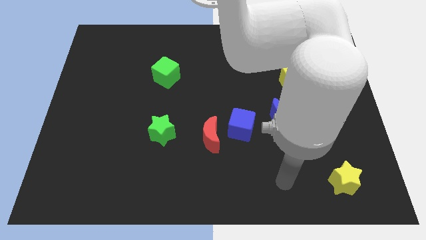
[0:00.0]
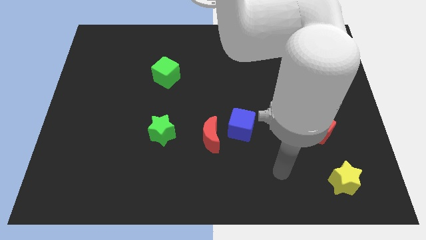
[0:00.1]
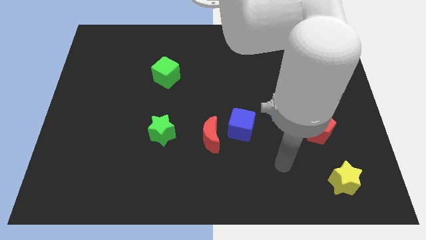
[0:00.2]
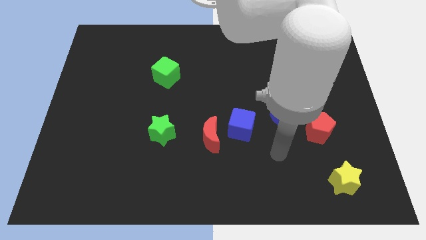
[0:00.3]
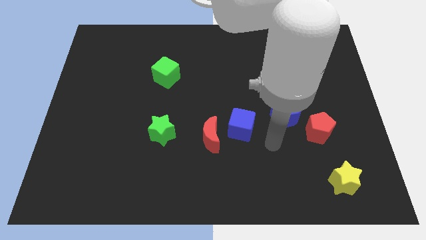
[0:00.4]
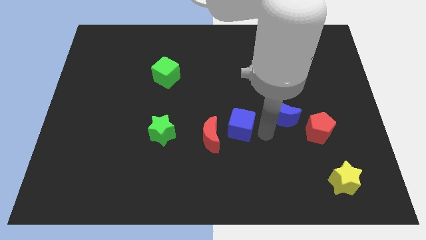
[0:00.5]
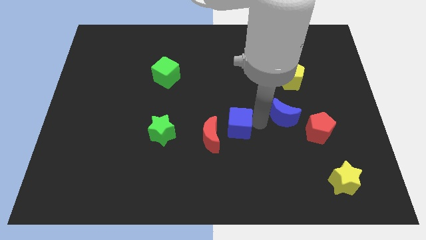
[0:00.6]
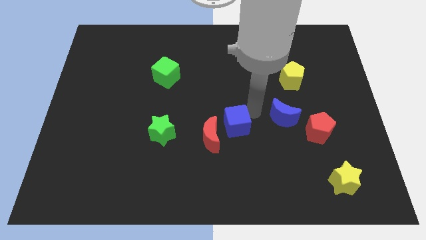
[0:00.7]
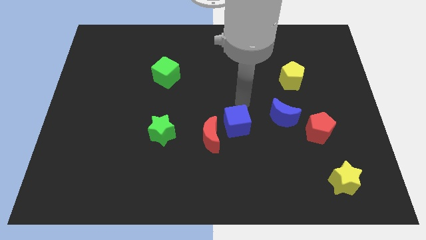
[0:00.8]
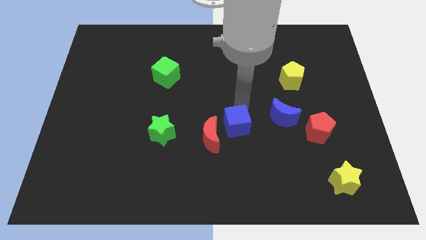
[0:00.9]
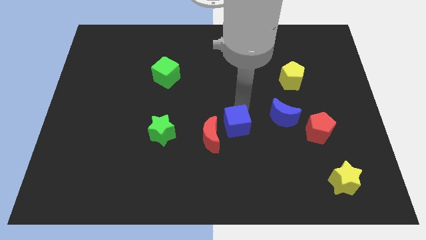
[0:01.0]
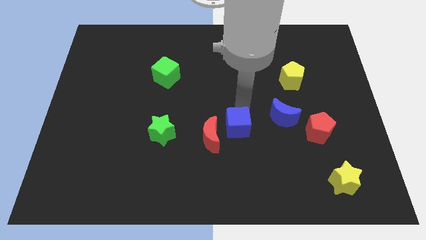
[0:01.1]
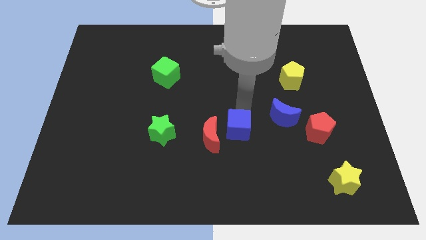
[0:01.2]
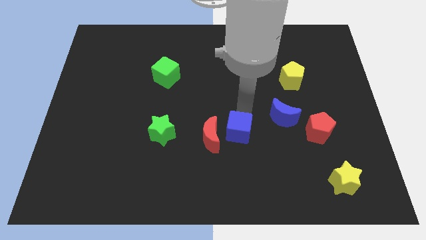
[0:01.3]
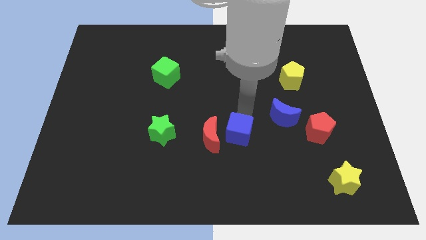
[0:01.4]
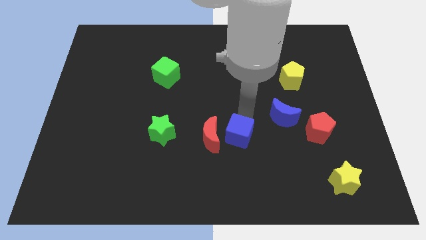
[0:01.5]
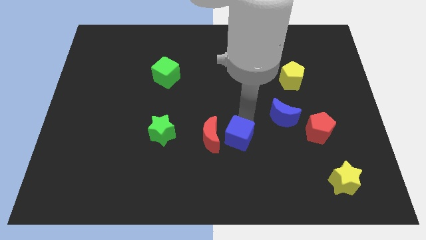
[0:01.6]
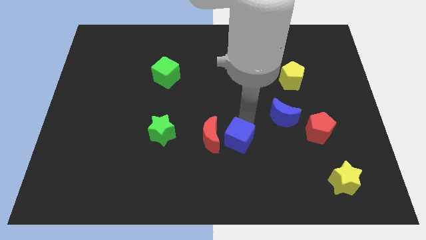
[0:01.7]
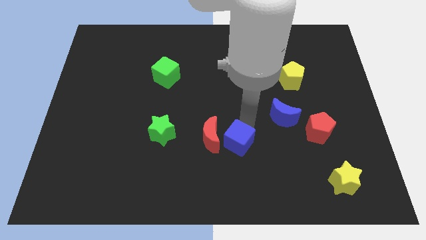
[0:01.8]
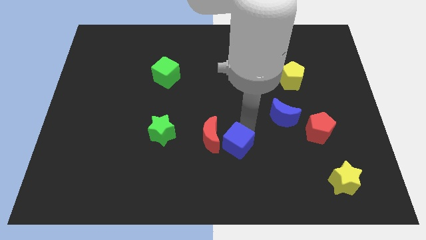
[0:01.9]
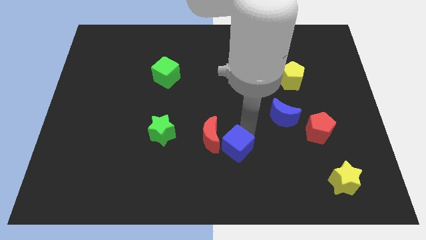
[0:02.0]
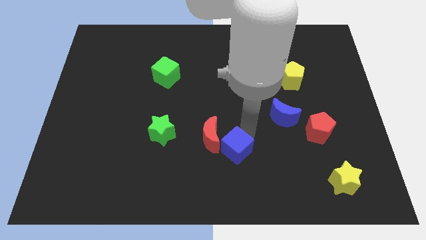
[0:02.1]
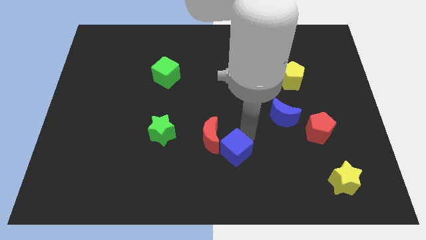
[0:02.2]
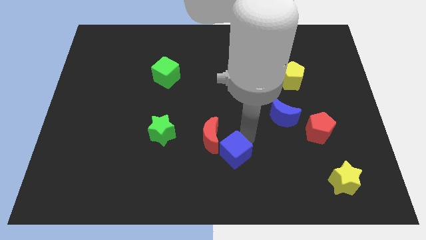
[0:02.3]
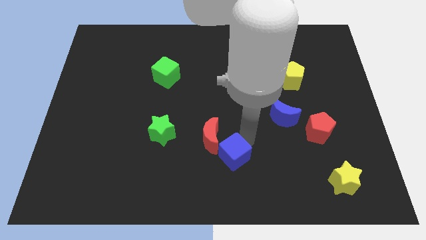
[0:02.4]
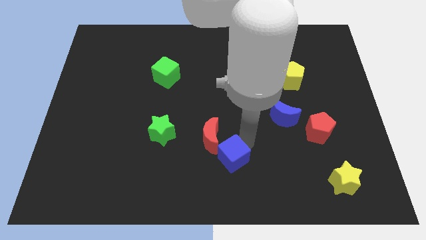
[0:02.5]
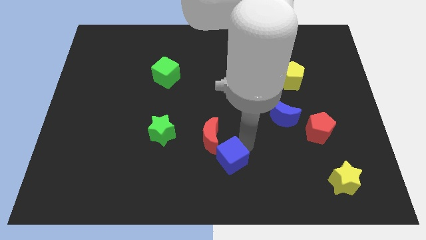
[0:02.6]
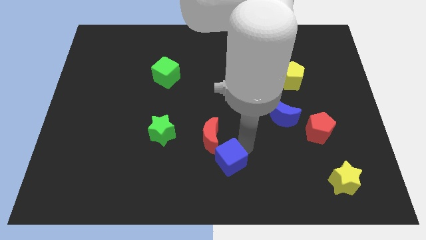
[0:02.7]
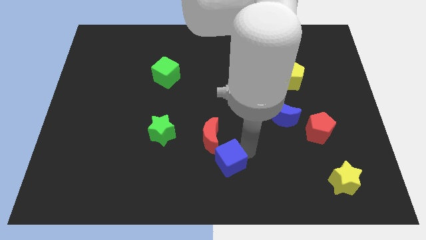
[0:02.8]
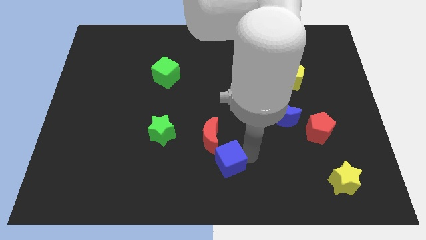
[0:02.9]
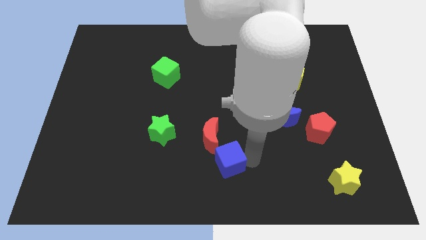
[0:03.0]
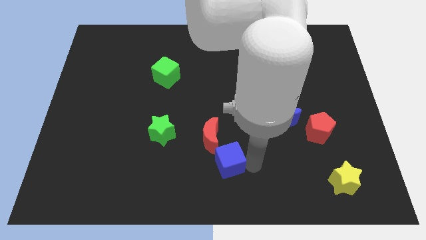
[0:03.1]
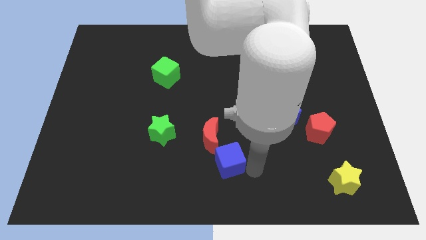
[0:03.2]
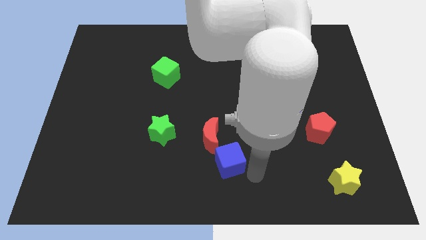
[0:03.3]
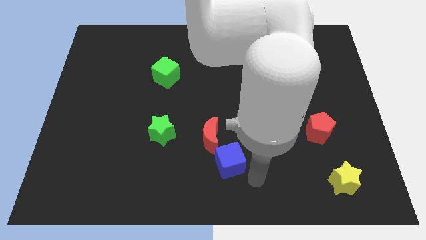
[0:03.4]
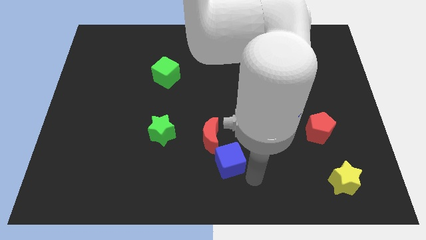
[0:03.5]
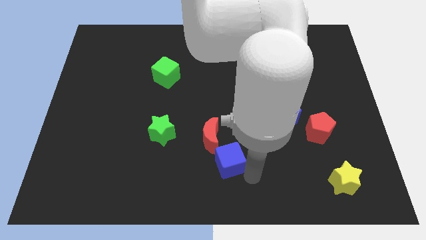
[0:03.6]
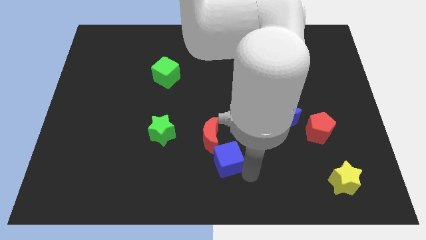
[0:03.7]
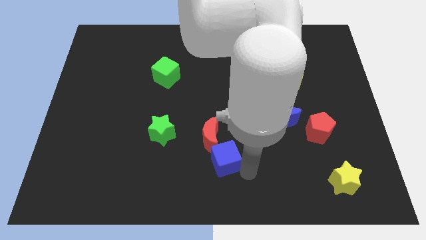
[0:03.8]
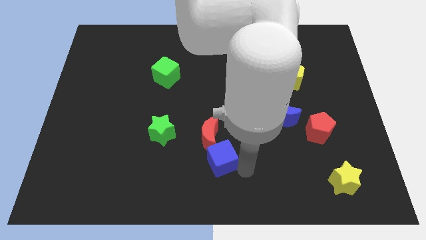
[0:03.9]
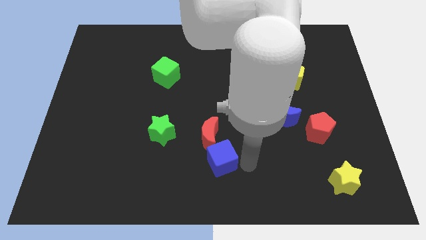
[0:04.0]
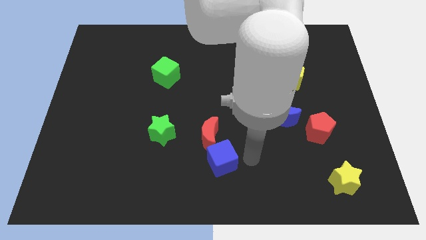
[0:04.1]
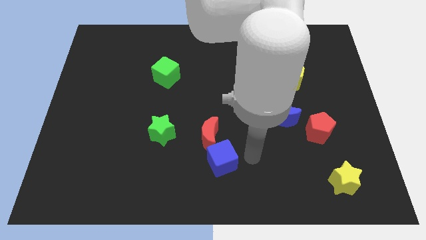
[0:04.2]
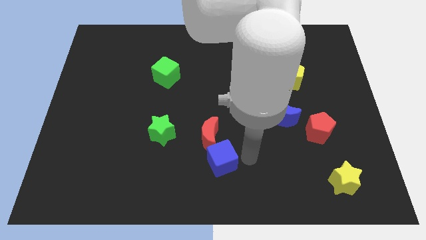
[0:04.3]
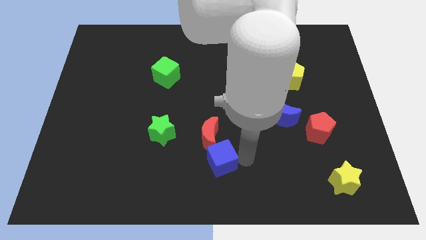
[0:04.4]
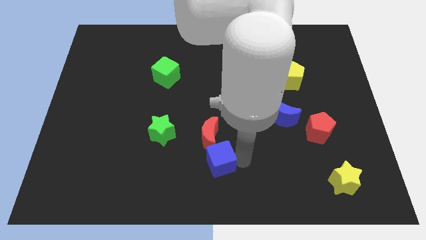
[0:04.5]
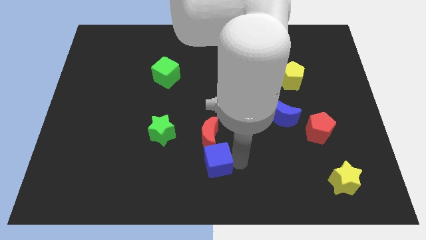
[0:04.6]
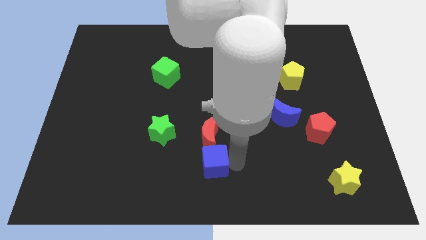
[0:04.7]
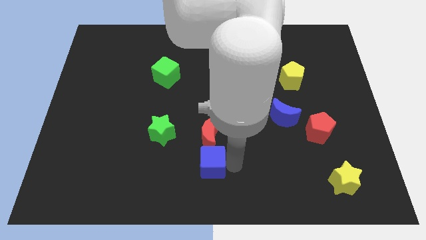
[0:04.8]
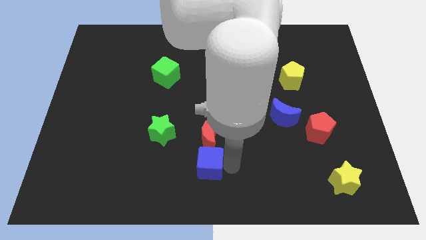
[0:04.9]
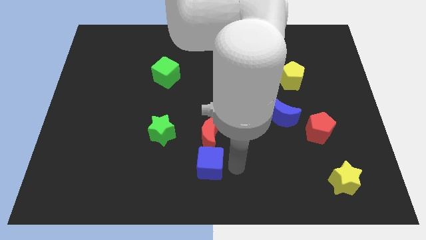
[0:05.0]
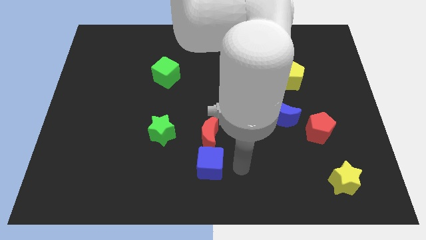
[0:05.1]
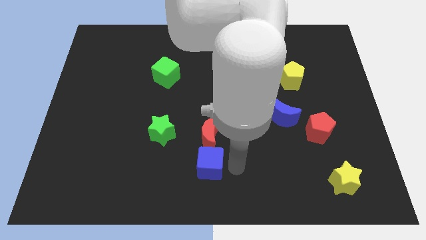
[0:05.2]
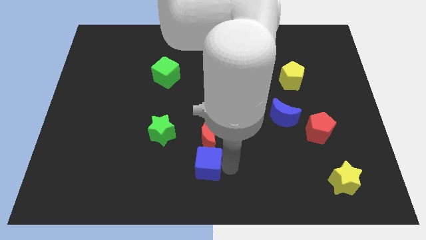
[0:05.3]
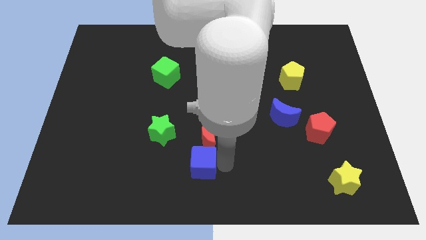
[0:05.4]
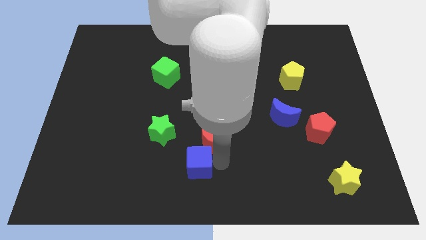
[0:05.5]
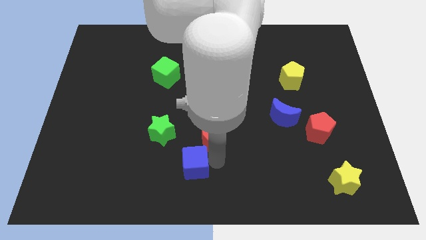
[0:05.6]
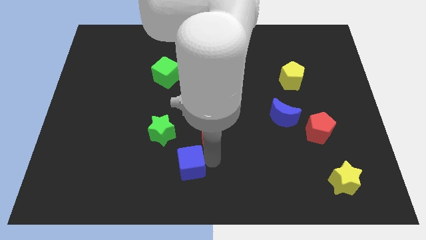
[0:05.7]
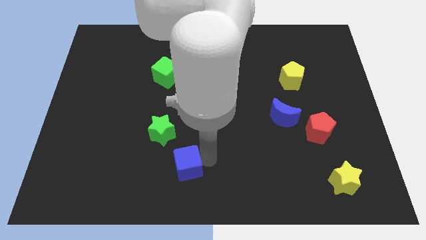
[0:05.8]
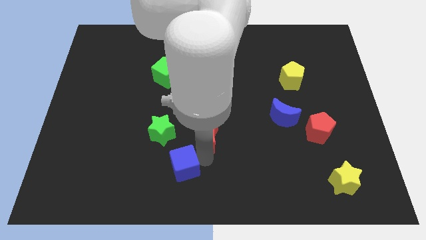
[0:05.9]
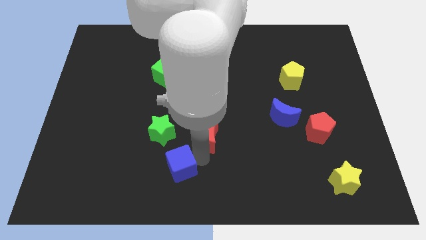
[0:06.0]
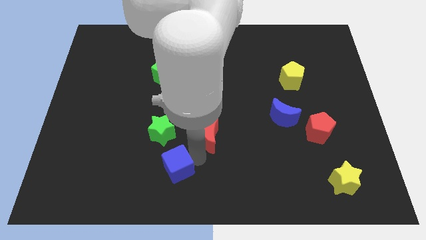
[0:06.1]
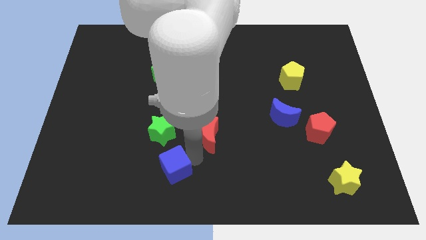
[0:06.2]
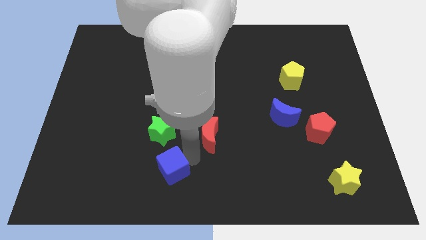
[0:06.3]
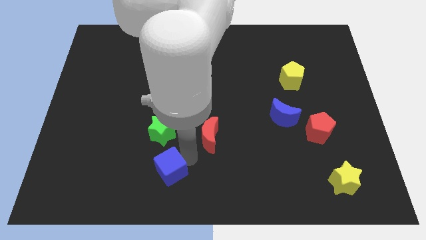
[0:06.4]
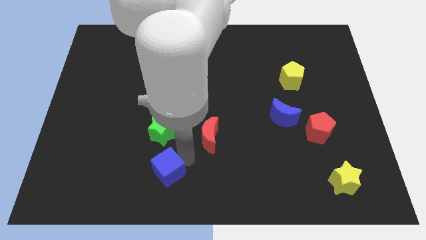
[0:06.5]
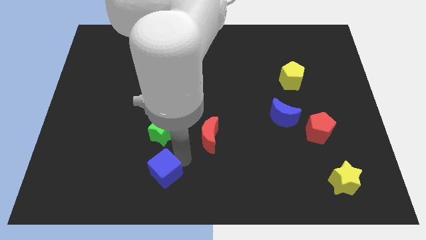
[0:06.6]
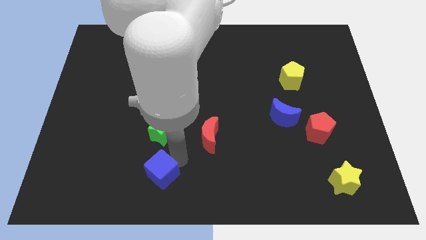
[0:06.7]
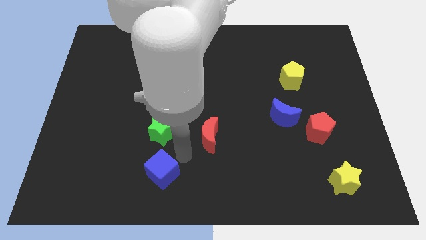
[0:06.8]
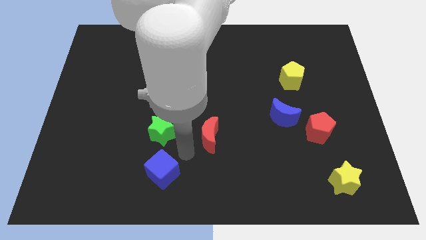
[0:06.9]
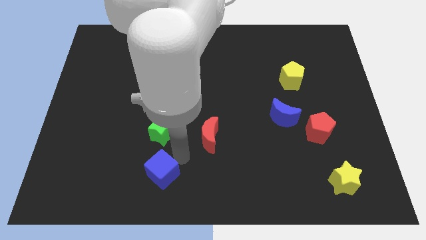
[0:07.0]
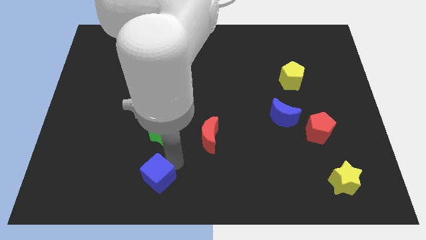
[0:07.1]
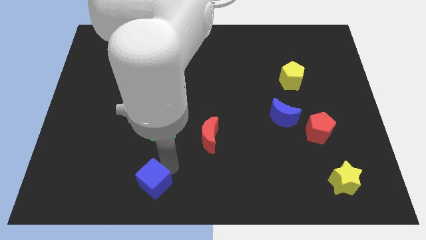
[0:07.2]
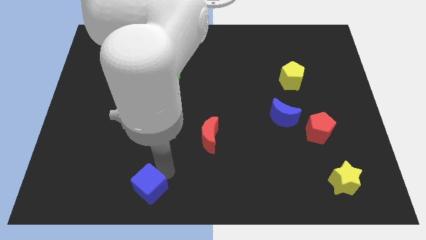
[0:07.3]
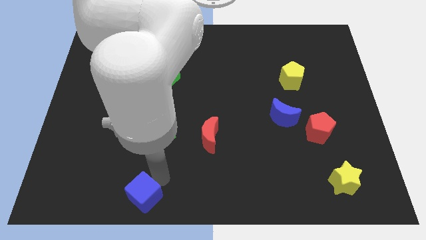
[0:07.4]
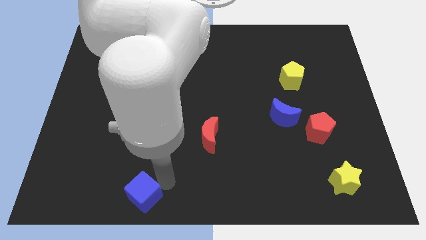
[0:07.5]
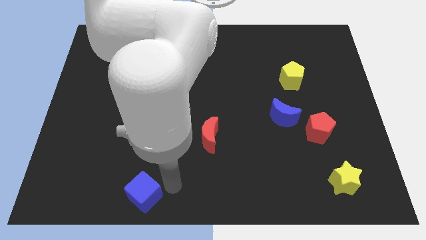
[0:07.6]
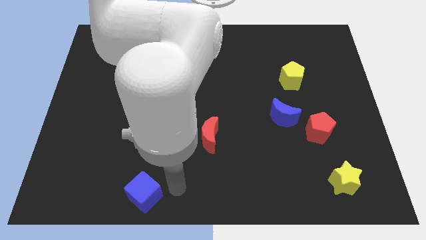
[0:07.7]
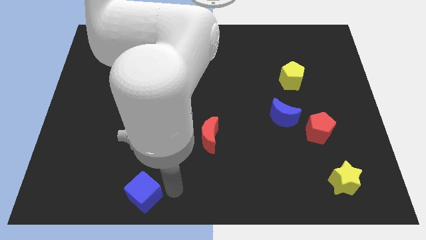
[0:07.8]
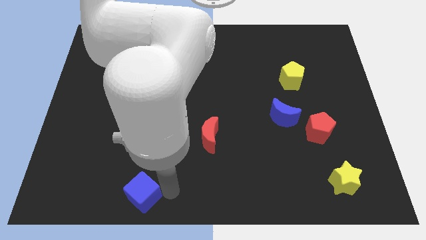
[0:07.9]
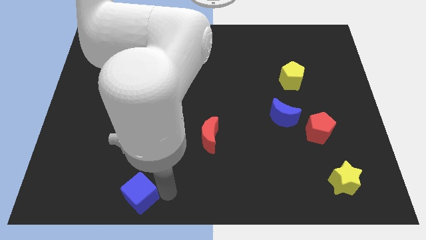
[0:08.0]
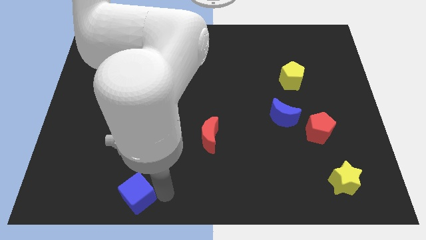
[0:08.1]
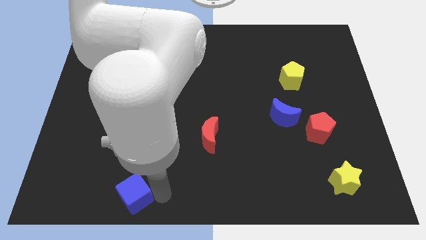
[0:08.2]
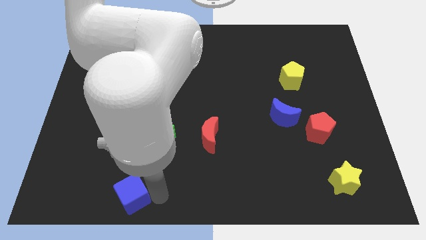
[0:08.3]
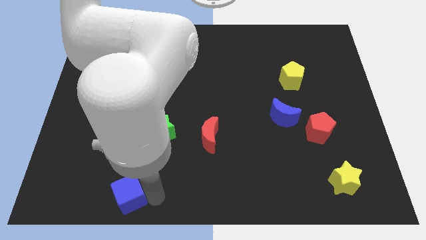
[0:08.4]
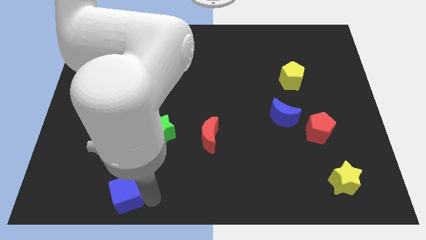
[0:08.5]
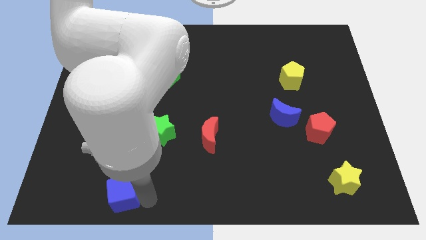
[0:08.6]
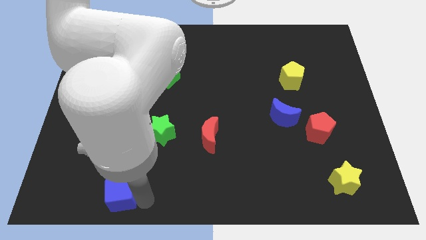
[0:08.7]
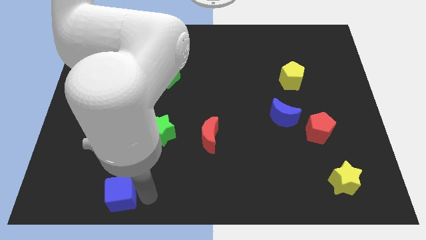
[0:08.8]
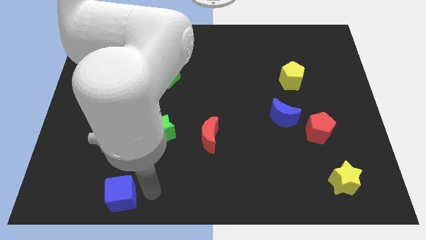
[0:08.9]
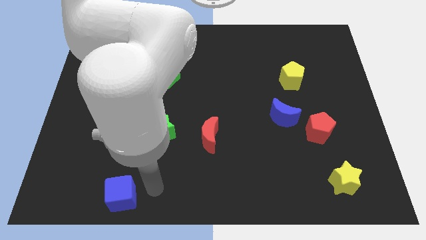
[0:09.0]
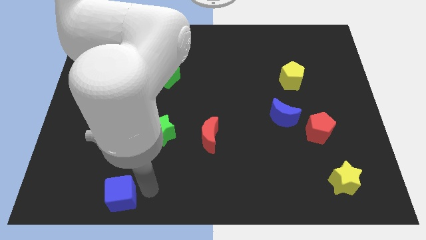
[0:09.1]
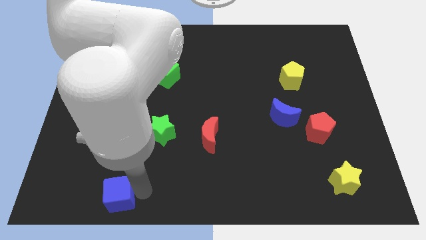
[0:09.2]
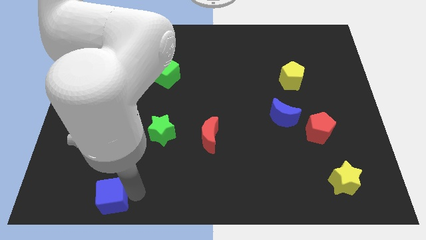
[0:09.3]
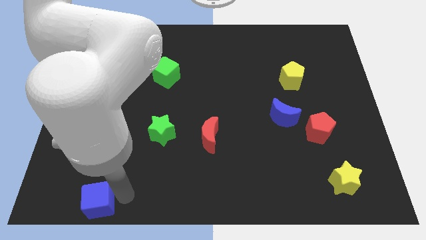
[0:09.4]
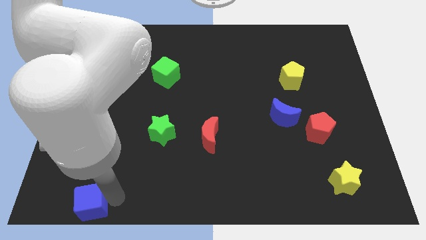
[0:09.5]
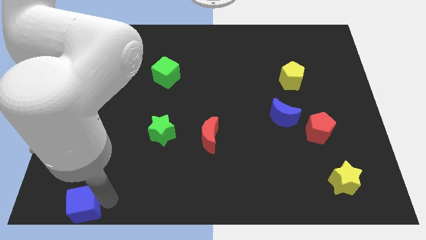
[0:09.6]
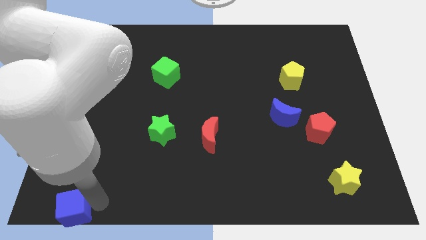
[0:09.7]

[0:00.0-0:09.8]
slide the blue cube to the lower left corner
